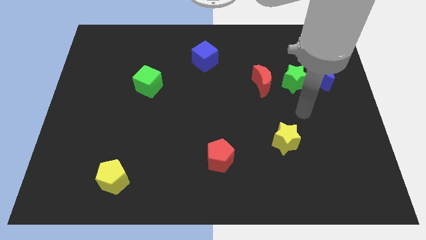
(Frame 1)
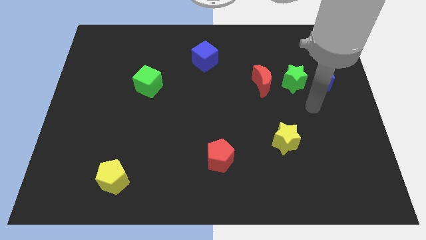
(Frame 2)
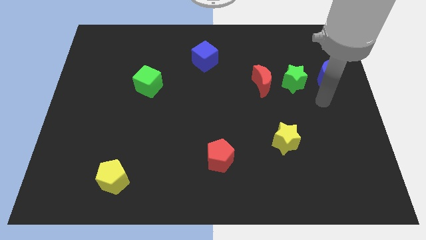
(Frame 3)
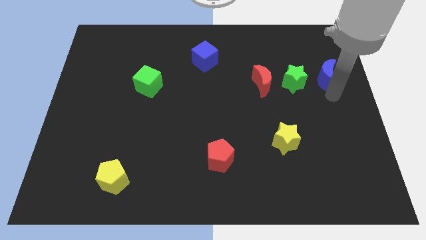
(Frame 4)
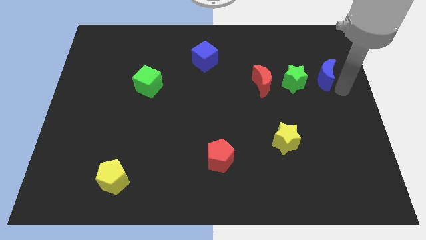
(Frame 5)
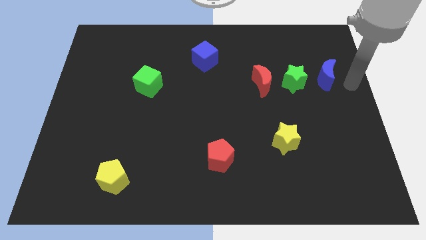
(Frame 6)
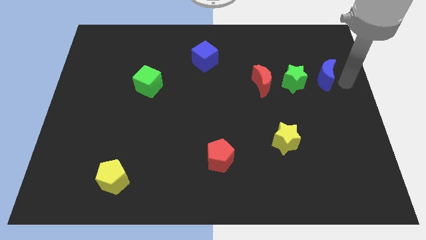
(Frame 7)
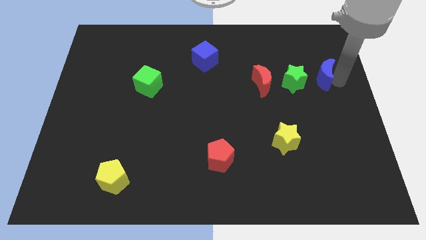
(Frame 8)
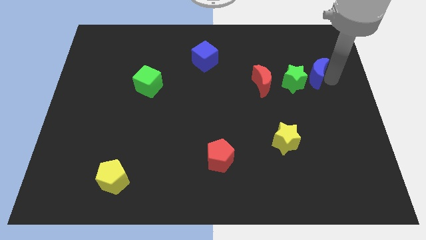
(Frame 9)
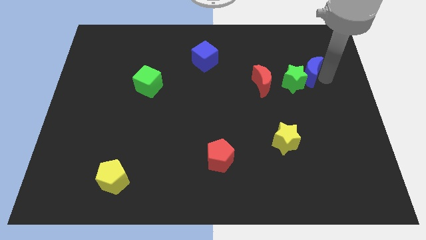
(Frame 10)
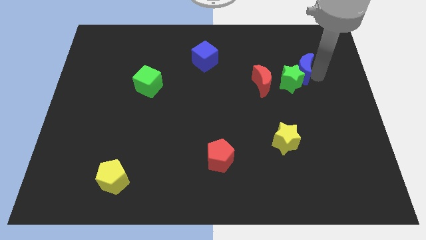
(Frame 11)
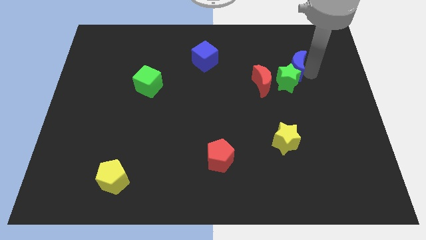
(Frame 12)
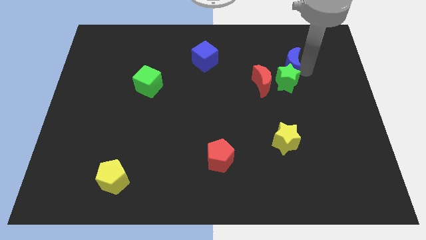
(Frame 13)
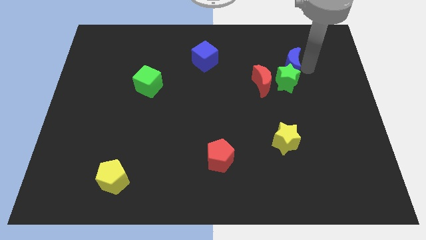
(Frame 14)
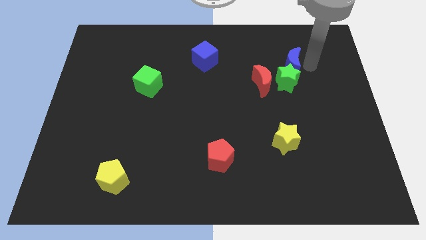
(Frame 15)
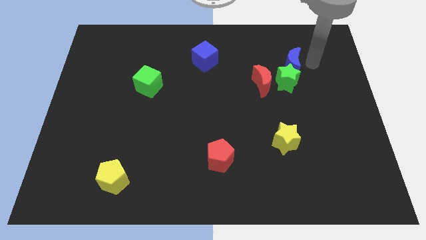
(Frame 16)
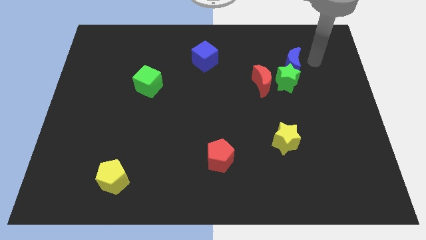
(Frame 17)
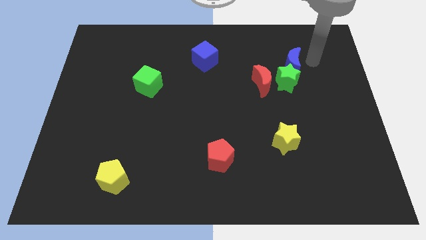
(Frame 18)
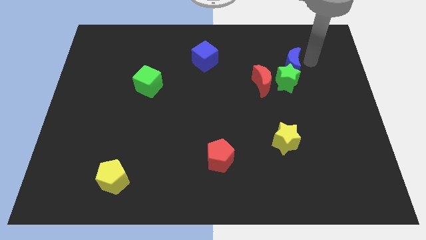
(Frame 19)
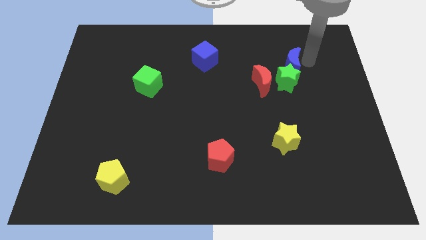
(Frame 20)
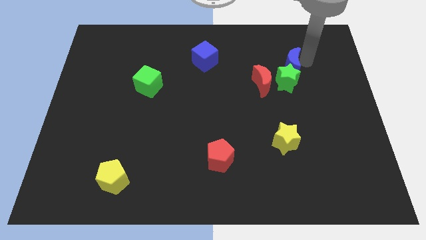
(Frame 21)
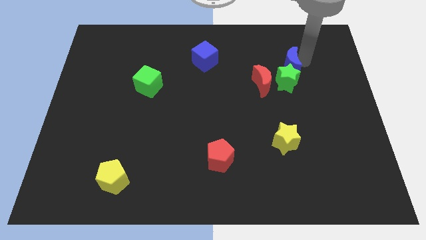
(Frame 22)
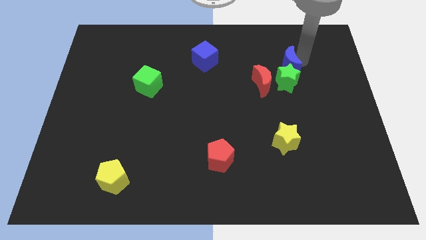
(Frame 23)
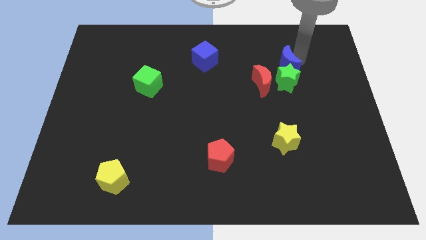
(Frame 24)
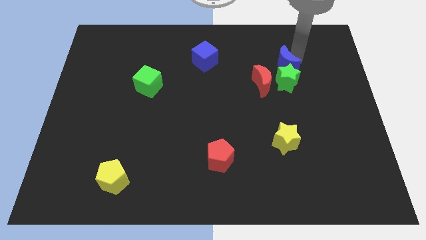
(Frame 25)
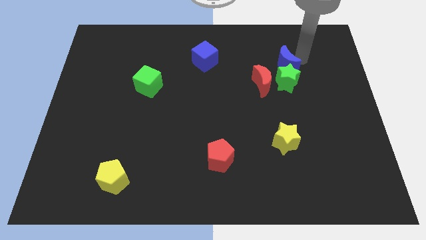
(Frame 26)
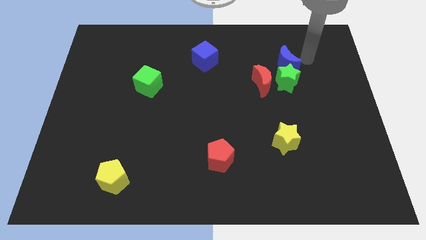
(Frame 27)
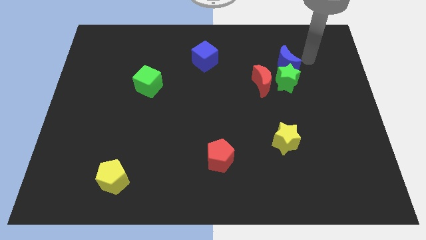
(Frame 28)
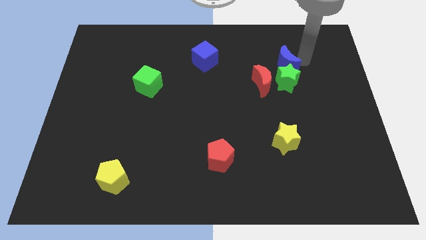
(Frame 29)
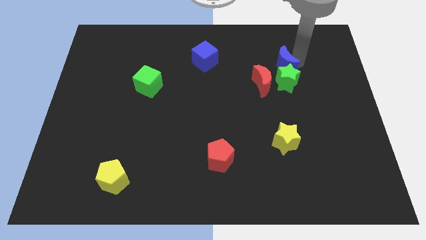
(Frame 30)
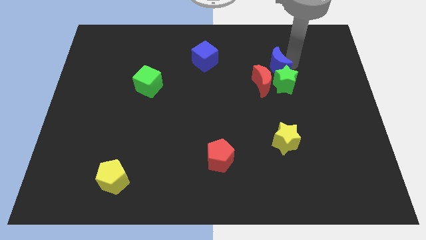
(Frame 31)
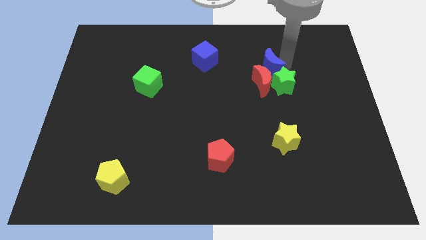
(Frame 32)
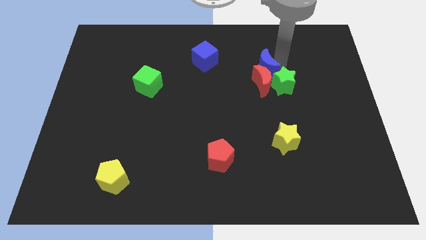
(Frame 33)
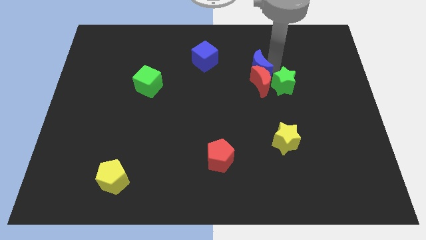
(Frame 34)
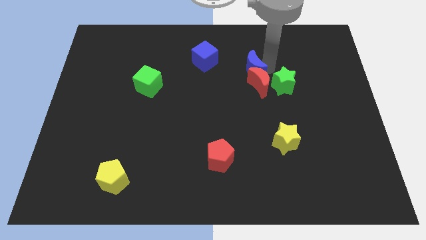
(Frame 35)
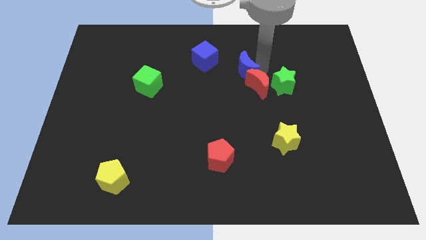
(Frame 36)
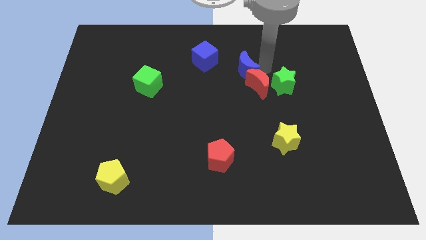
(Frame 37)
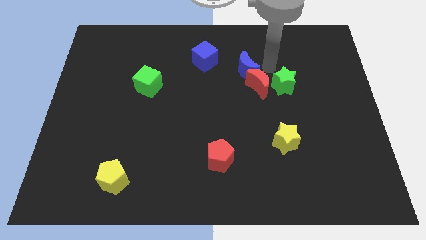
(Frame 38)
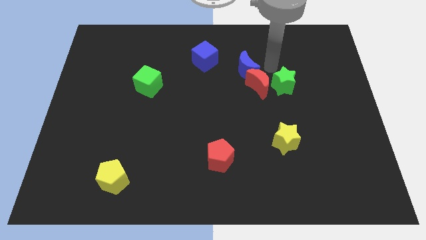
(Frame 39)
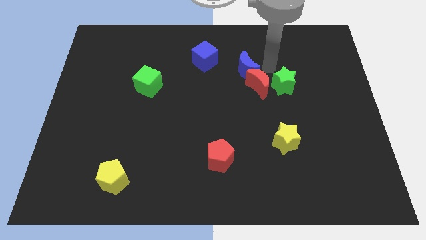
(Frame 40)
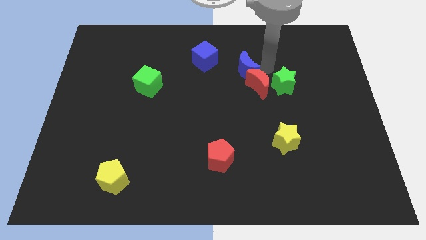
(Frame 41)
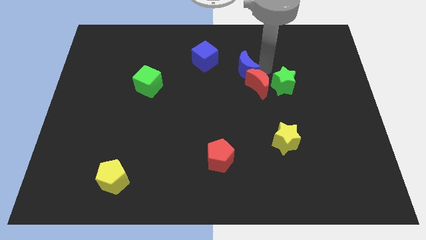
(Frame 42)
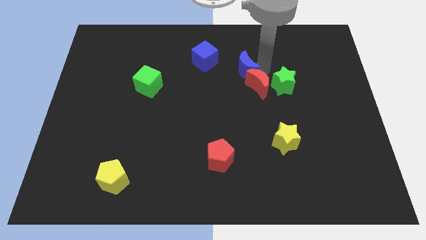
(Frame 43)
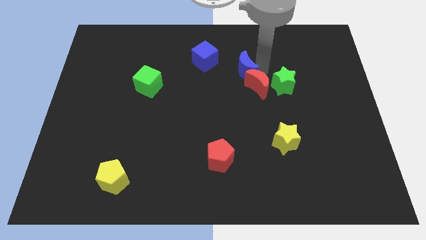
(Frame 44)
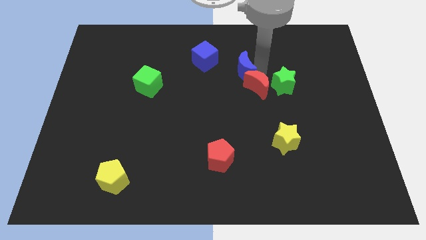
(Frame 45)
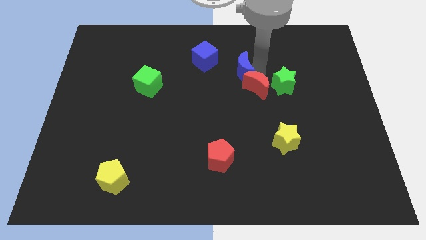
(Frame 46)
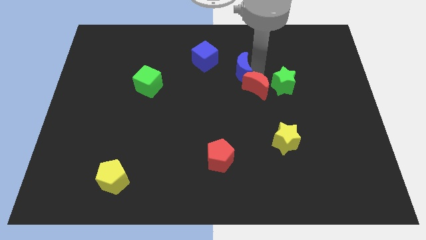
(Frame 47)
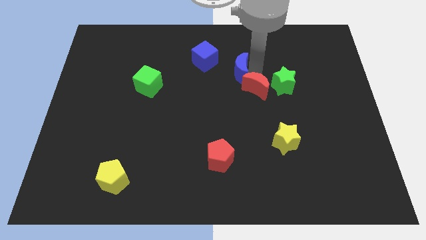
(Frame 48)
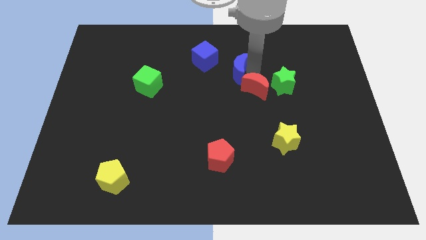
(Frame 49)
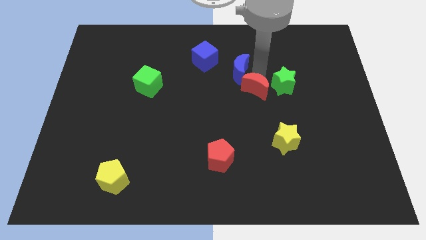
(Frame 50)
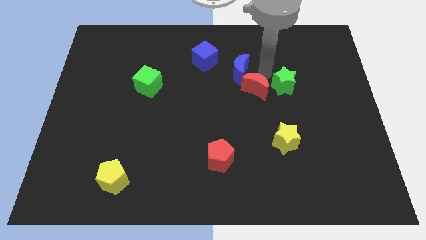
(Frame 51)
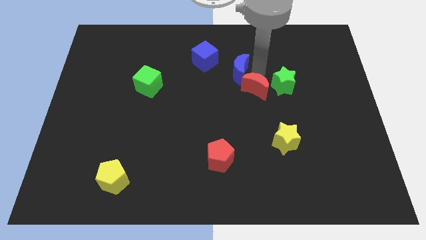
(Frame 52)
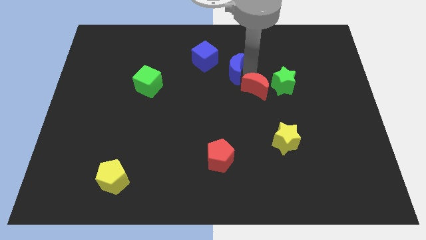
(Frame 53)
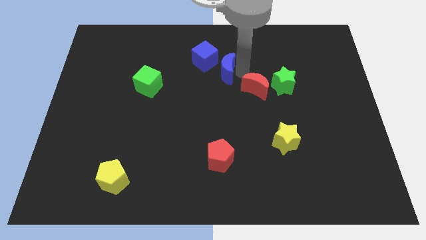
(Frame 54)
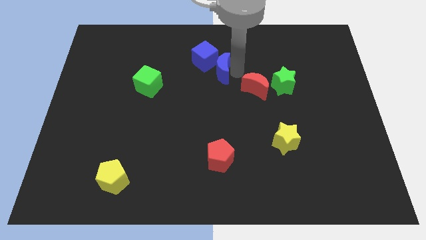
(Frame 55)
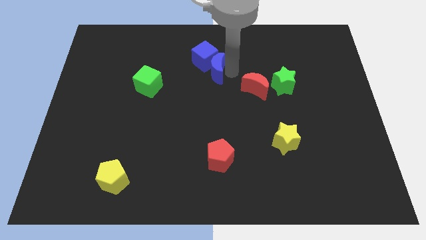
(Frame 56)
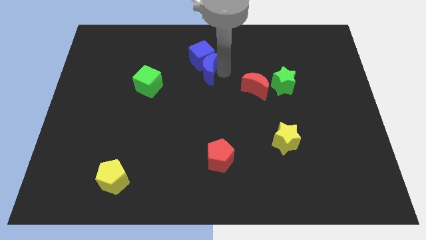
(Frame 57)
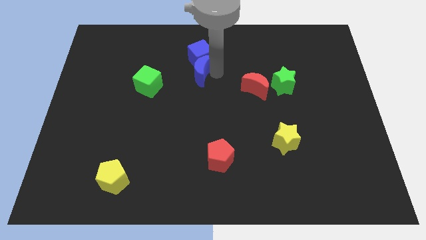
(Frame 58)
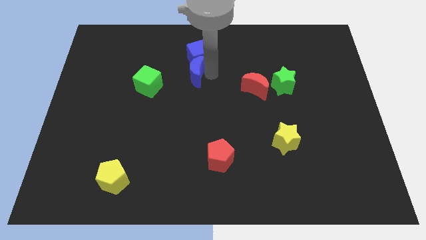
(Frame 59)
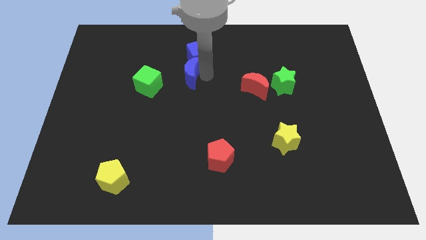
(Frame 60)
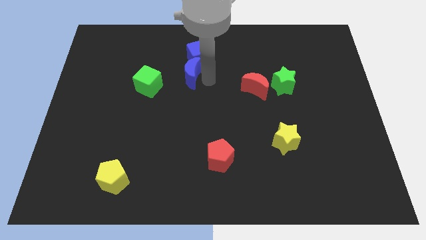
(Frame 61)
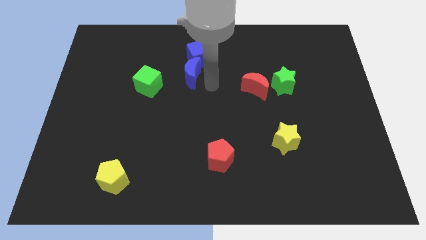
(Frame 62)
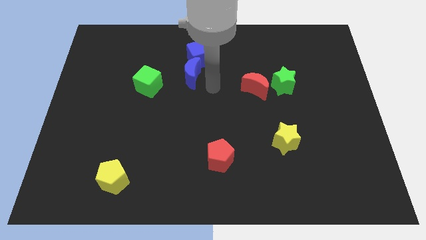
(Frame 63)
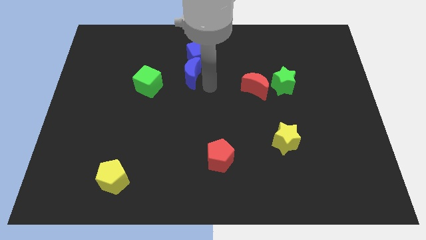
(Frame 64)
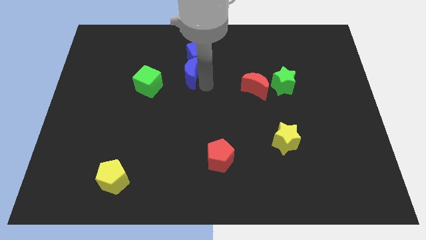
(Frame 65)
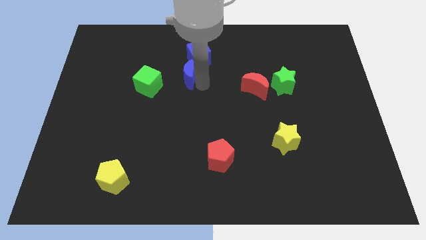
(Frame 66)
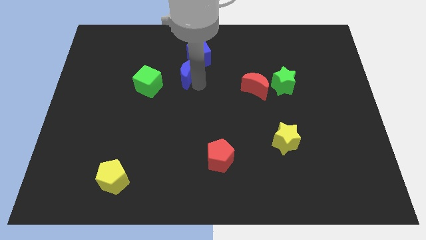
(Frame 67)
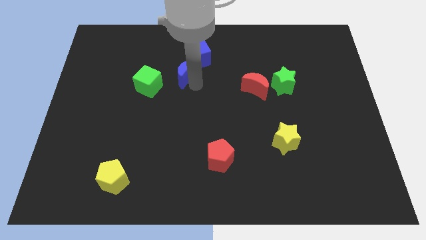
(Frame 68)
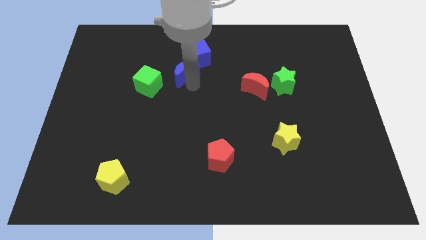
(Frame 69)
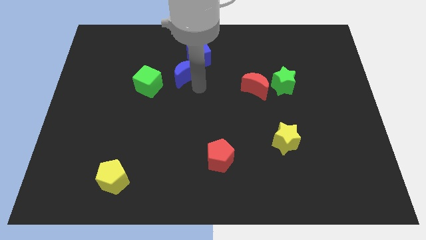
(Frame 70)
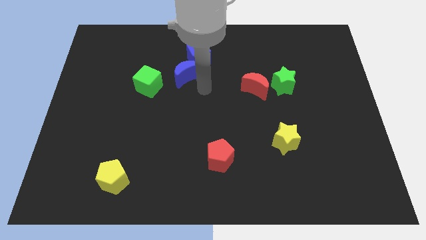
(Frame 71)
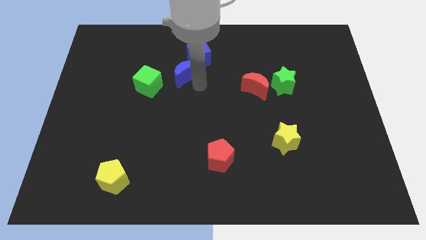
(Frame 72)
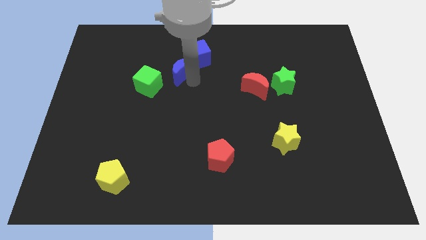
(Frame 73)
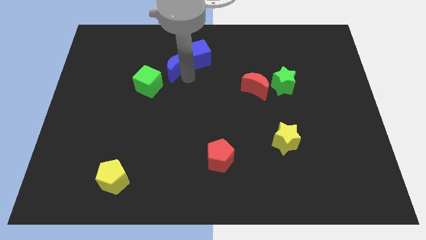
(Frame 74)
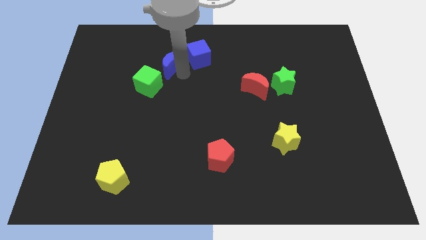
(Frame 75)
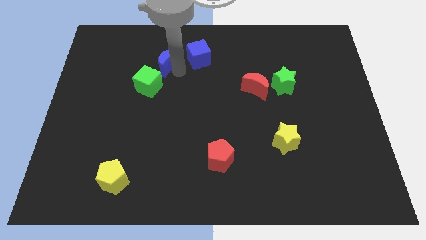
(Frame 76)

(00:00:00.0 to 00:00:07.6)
push the blue moon to the top of the green cube
